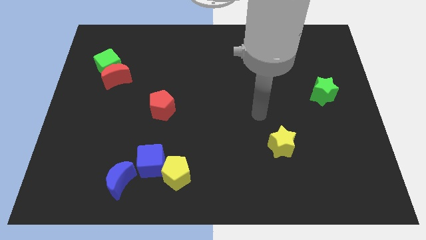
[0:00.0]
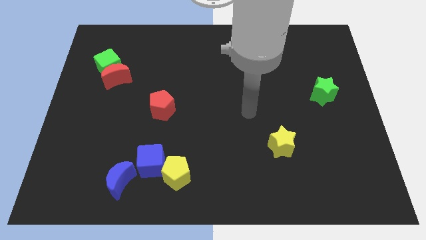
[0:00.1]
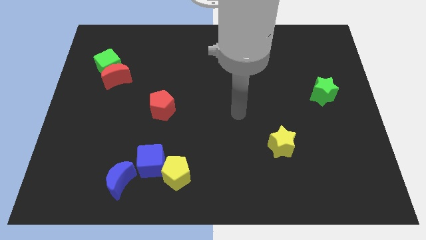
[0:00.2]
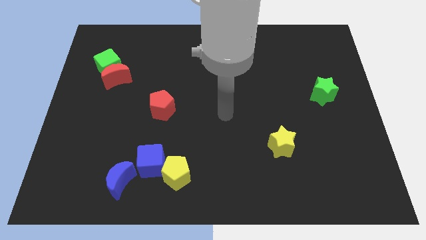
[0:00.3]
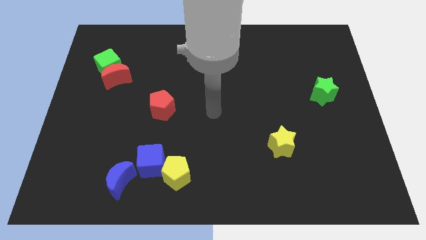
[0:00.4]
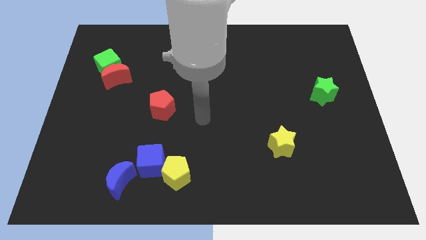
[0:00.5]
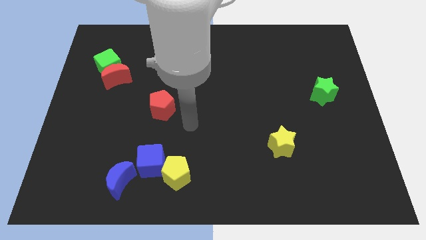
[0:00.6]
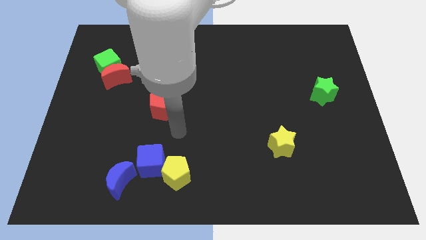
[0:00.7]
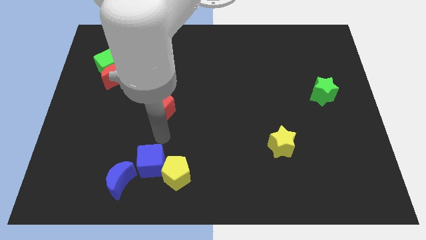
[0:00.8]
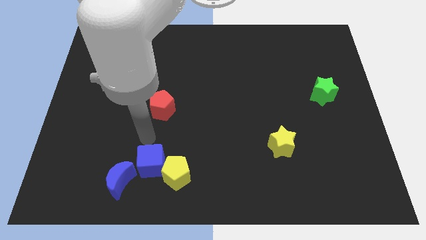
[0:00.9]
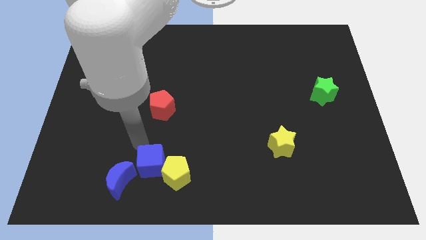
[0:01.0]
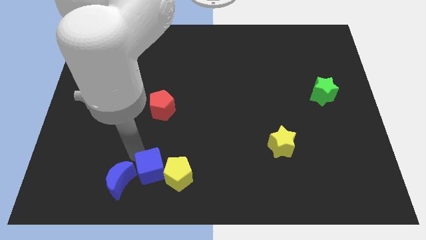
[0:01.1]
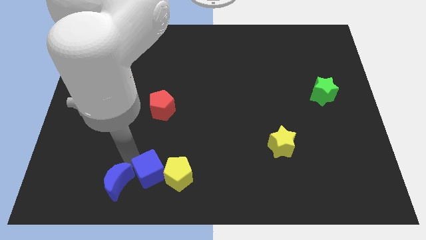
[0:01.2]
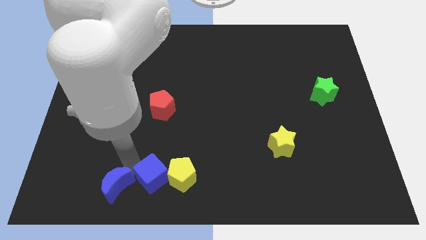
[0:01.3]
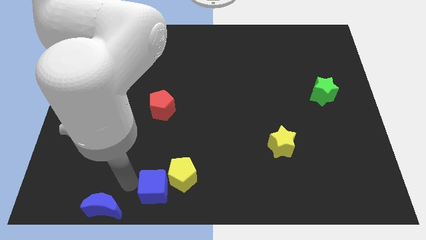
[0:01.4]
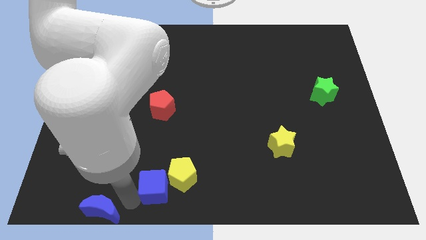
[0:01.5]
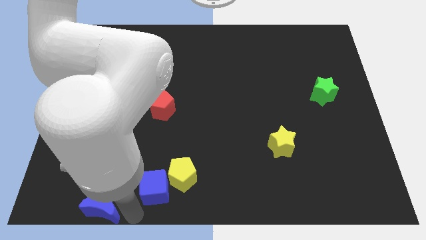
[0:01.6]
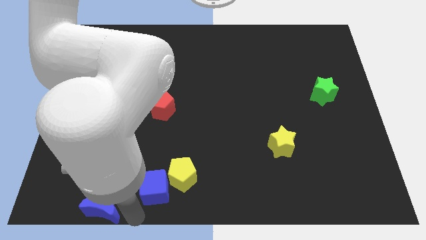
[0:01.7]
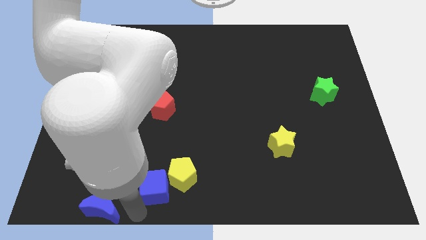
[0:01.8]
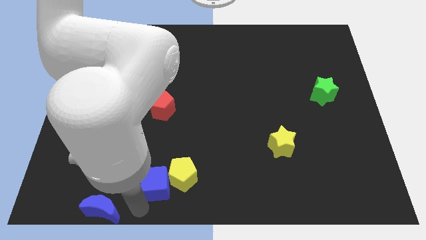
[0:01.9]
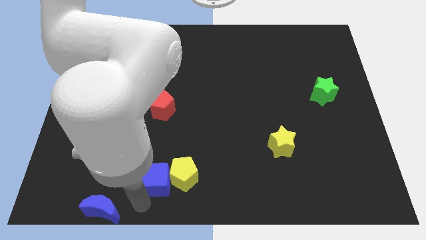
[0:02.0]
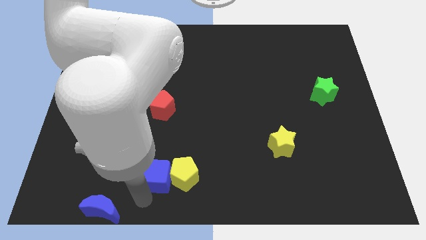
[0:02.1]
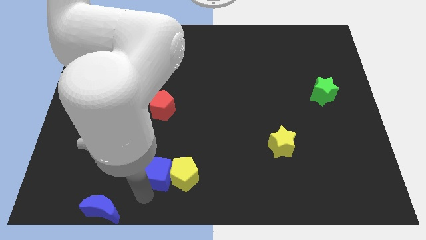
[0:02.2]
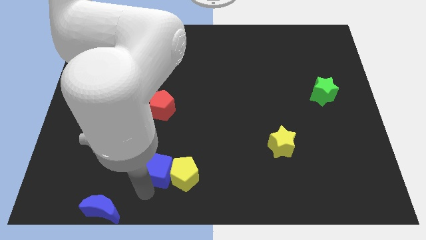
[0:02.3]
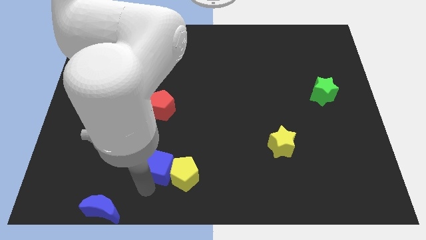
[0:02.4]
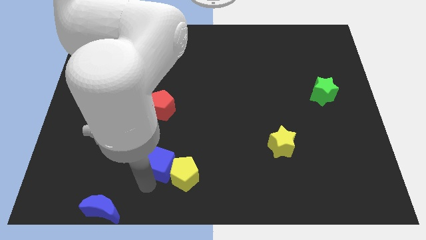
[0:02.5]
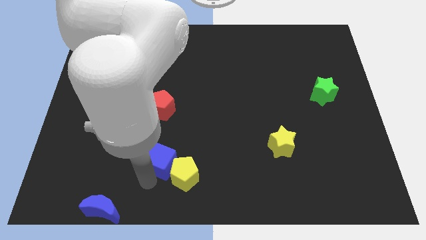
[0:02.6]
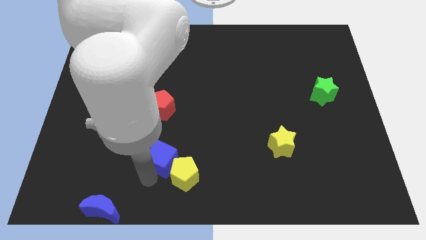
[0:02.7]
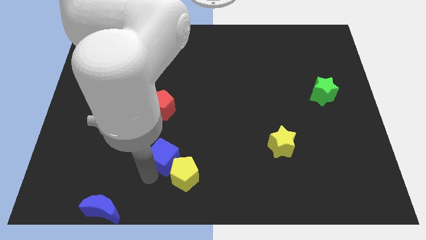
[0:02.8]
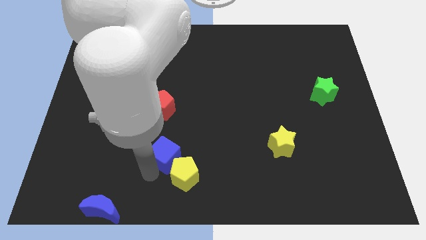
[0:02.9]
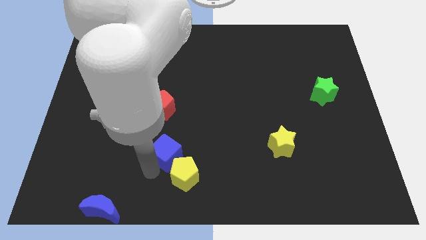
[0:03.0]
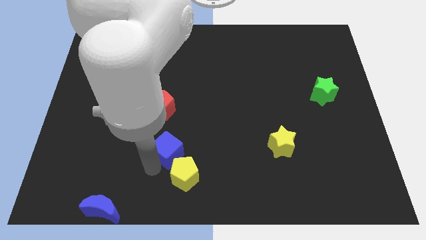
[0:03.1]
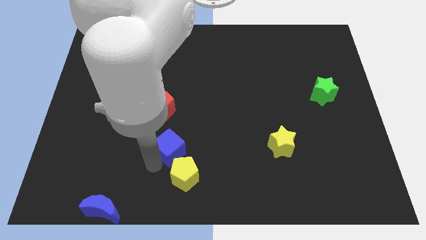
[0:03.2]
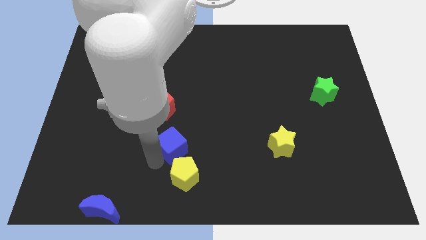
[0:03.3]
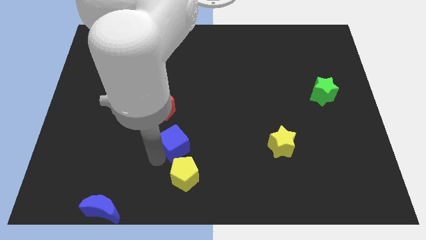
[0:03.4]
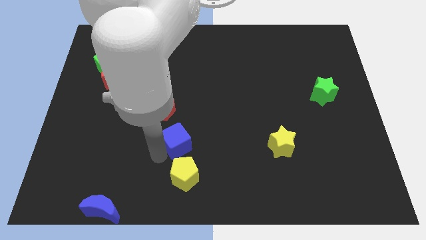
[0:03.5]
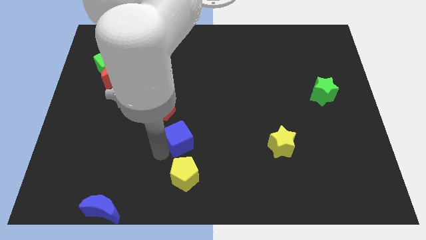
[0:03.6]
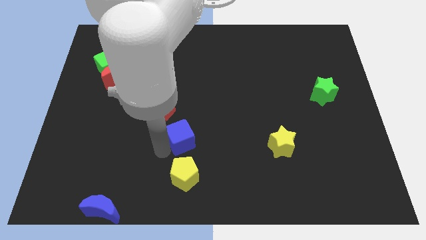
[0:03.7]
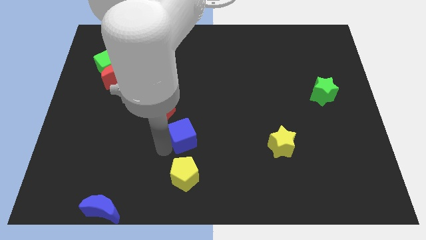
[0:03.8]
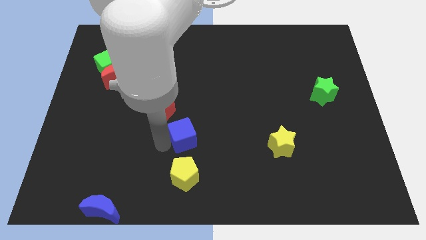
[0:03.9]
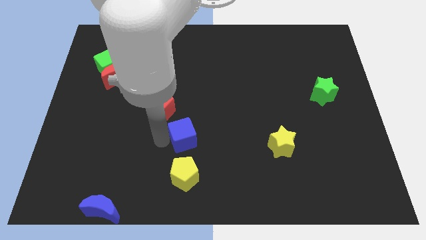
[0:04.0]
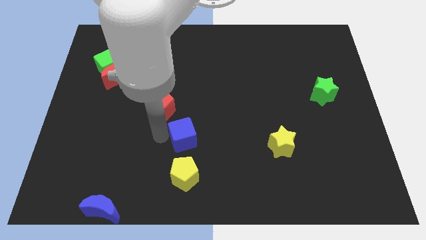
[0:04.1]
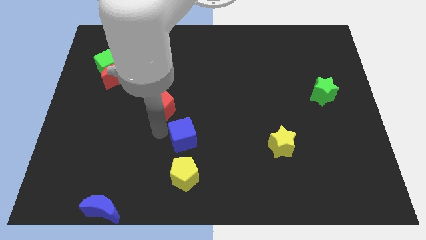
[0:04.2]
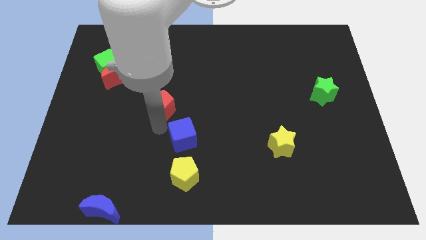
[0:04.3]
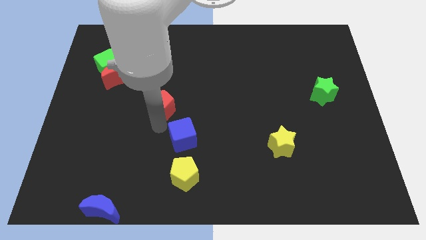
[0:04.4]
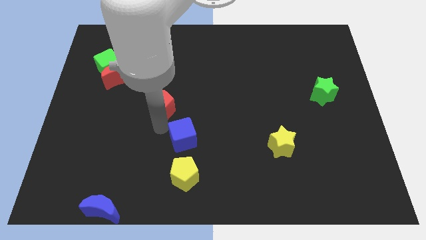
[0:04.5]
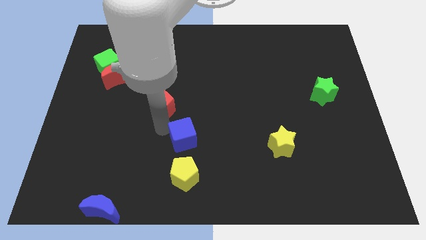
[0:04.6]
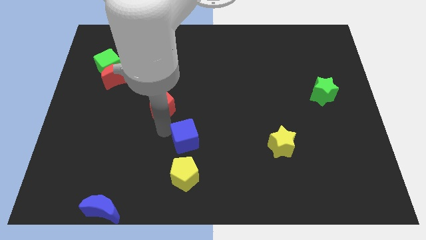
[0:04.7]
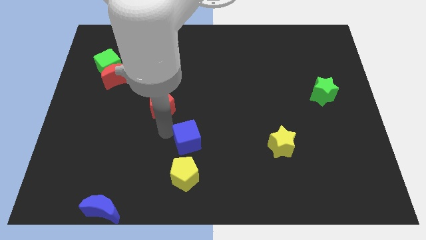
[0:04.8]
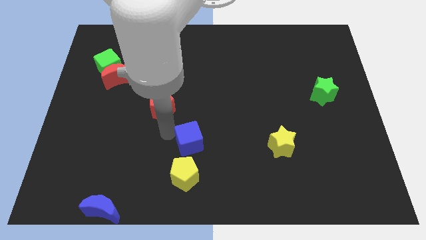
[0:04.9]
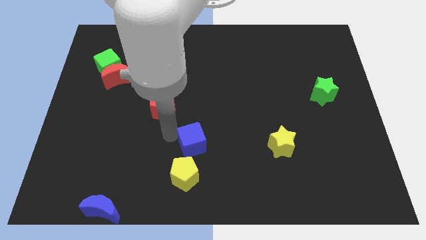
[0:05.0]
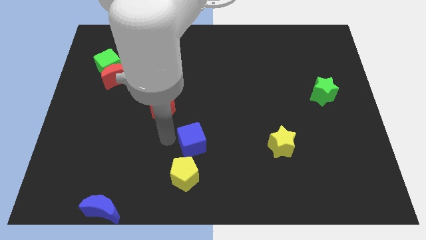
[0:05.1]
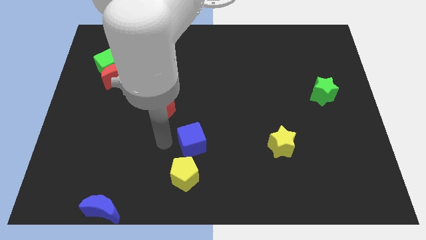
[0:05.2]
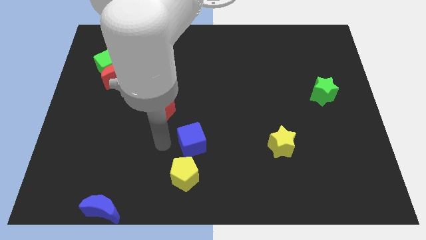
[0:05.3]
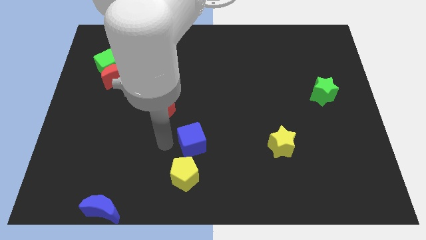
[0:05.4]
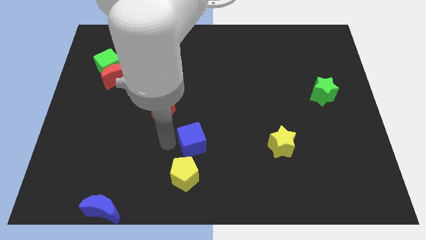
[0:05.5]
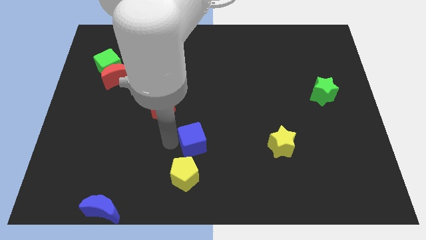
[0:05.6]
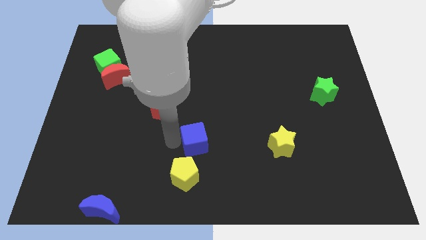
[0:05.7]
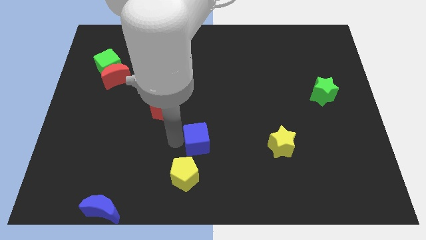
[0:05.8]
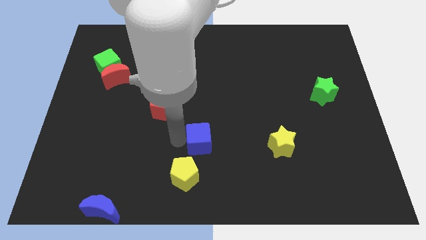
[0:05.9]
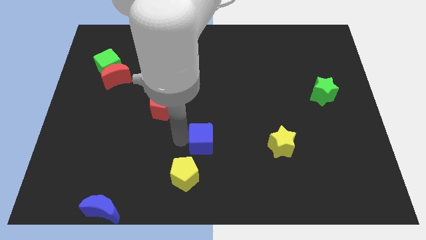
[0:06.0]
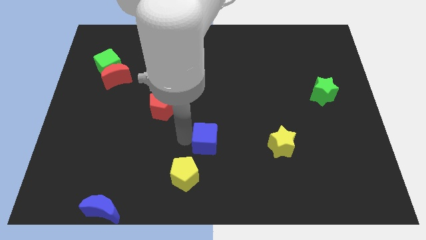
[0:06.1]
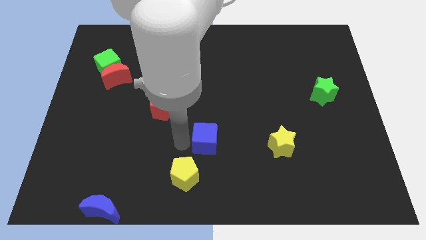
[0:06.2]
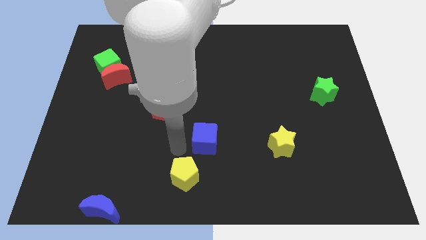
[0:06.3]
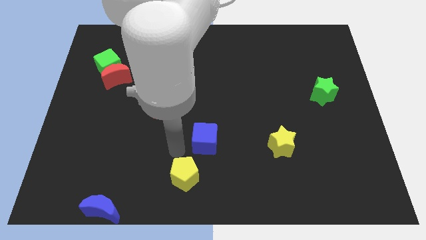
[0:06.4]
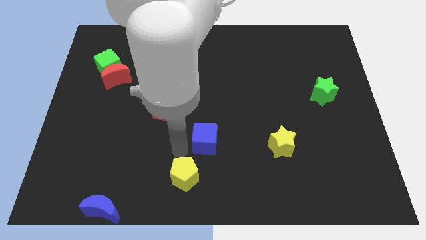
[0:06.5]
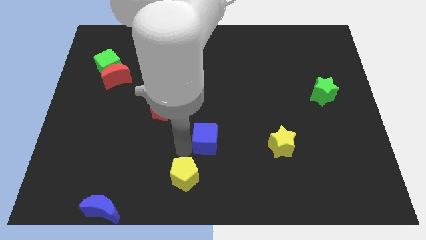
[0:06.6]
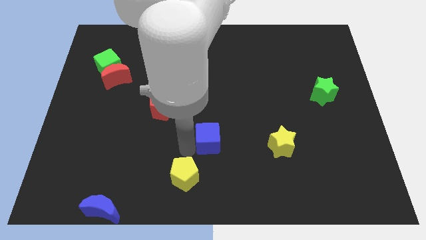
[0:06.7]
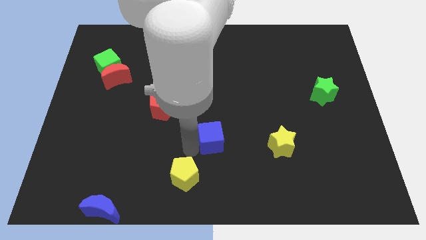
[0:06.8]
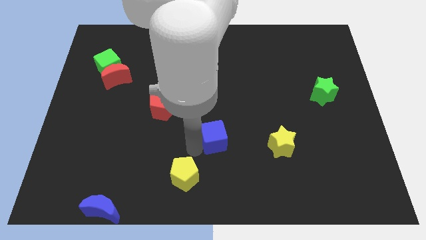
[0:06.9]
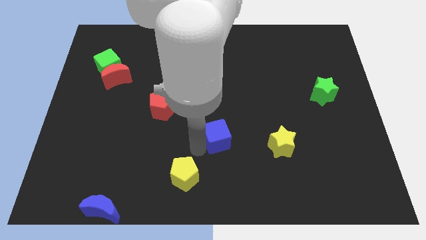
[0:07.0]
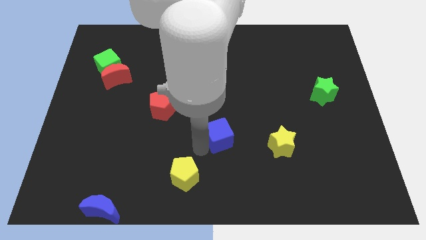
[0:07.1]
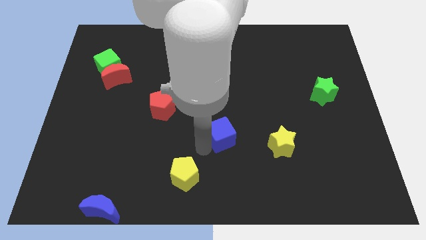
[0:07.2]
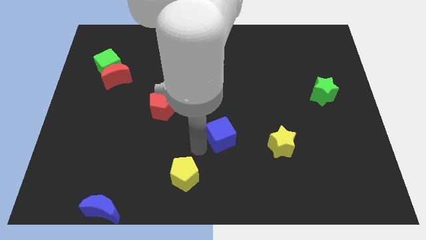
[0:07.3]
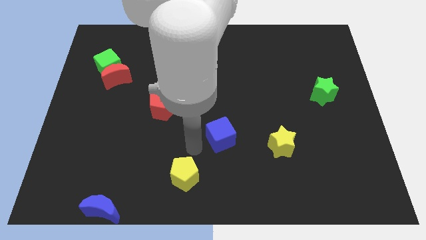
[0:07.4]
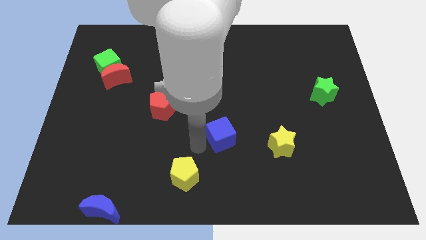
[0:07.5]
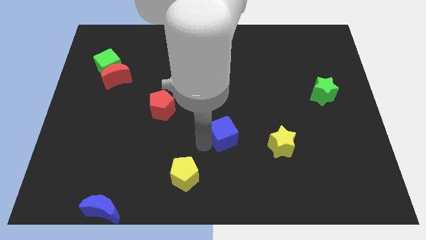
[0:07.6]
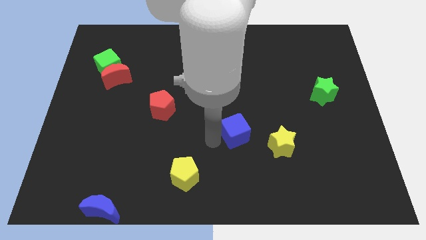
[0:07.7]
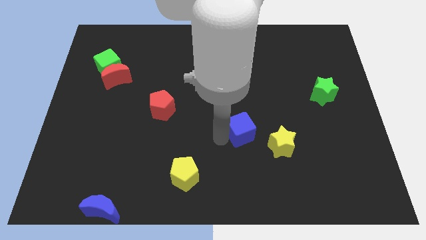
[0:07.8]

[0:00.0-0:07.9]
slide the blue cube to the top left side of the yellow star
